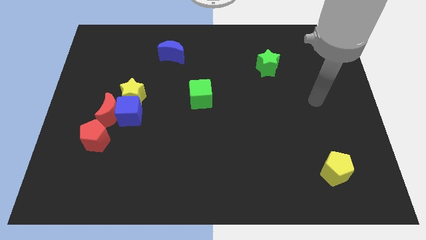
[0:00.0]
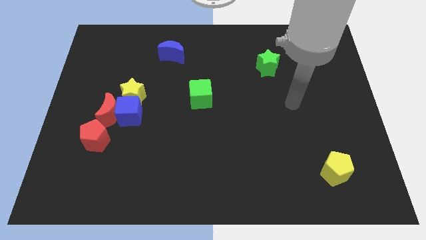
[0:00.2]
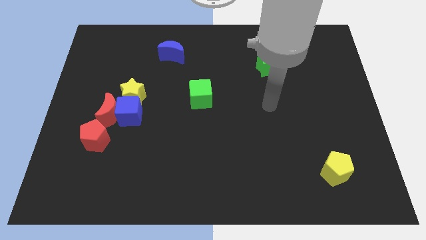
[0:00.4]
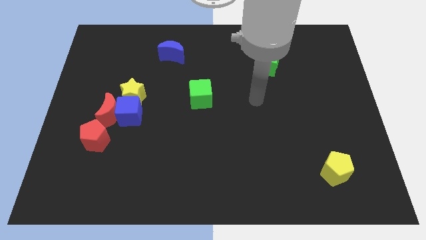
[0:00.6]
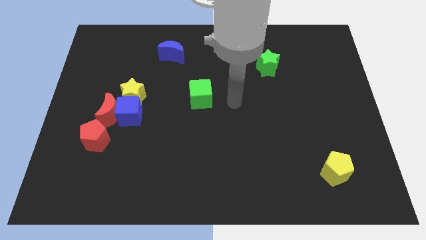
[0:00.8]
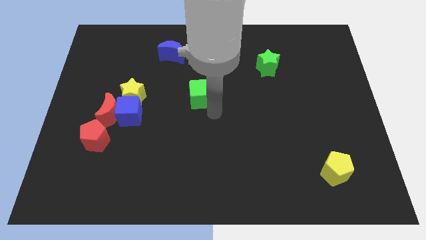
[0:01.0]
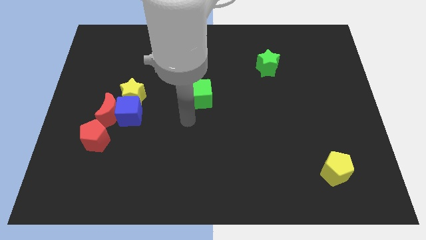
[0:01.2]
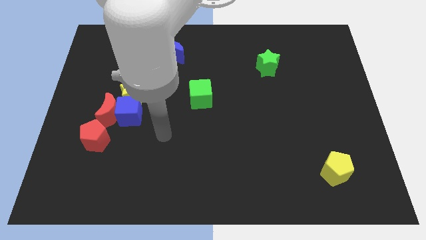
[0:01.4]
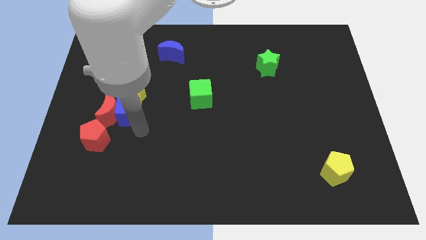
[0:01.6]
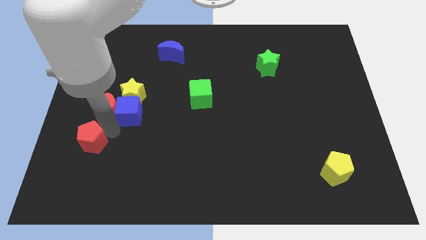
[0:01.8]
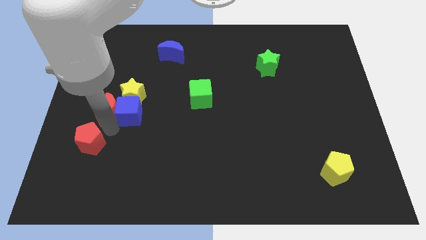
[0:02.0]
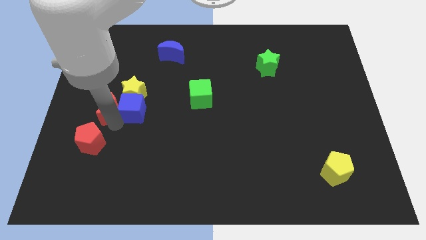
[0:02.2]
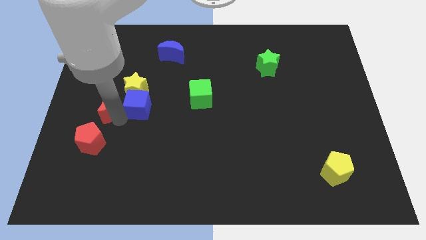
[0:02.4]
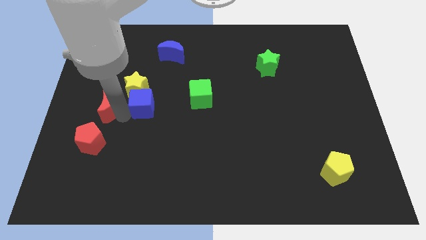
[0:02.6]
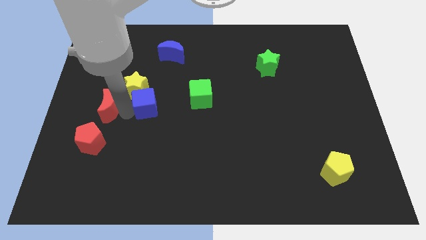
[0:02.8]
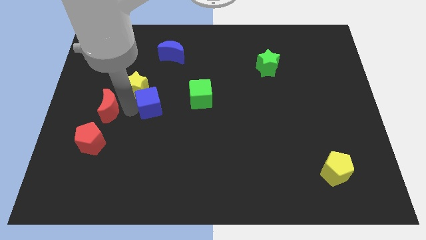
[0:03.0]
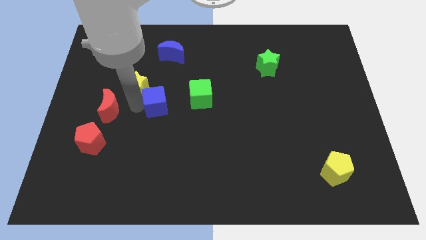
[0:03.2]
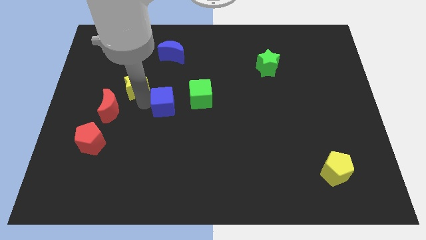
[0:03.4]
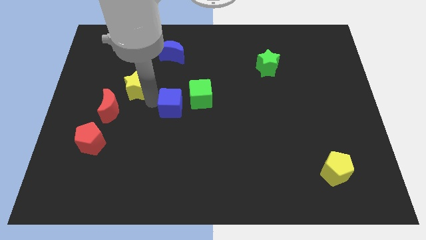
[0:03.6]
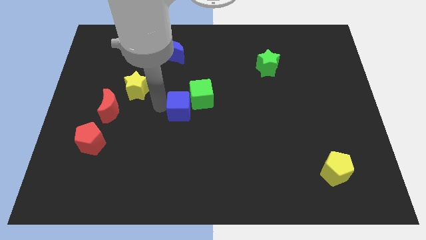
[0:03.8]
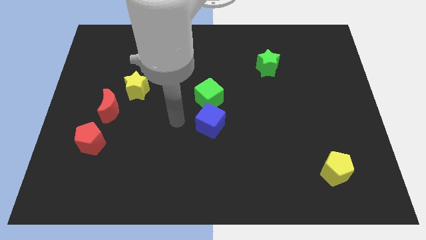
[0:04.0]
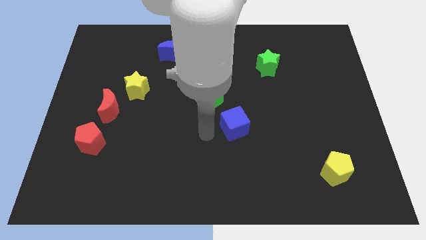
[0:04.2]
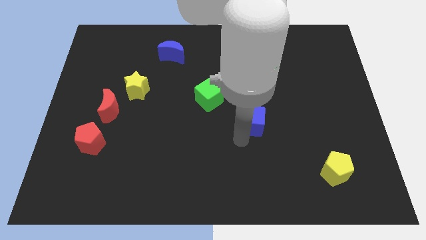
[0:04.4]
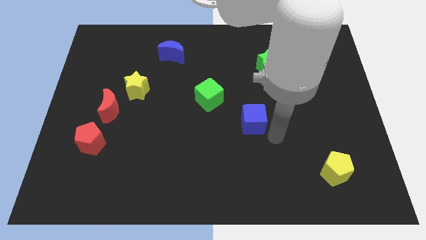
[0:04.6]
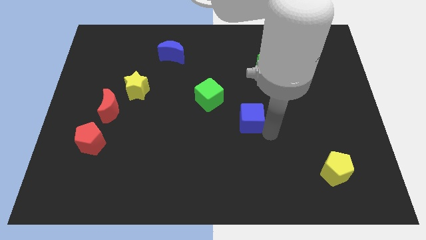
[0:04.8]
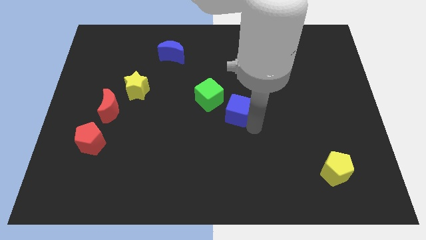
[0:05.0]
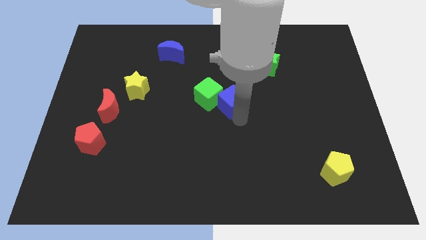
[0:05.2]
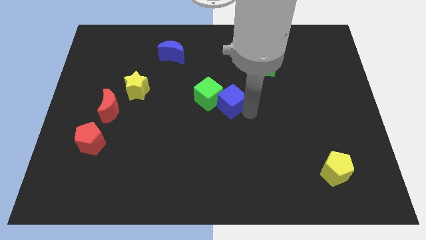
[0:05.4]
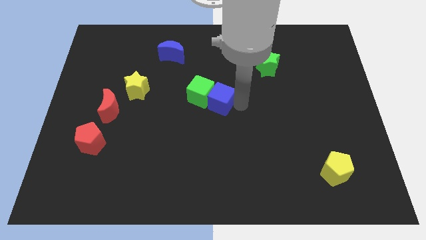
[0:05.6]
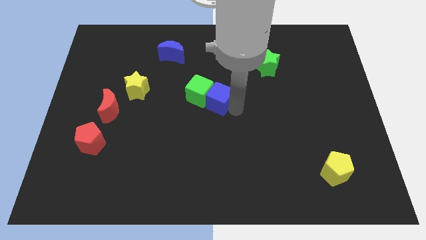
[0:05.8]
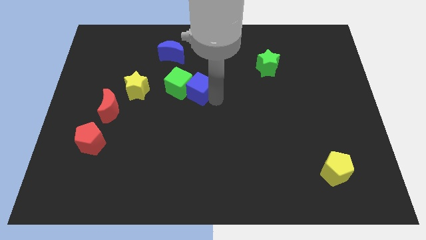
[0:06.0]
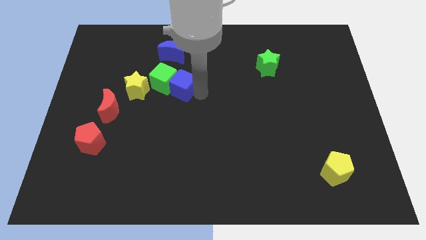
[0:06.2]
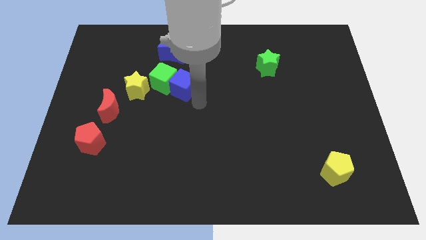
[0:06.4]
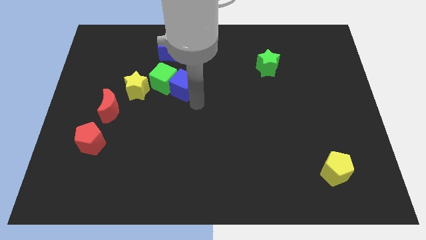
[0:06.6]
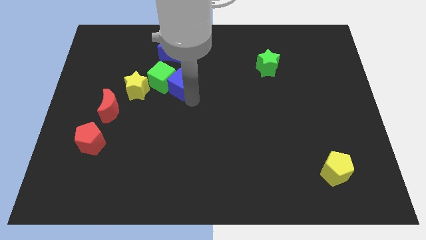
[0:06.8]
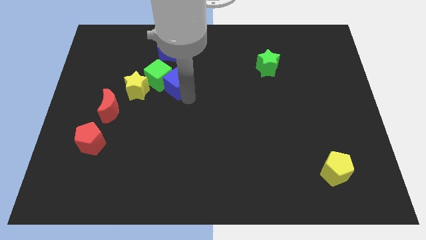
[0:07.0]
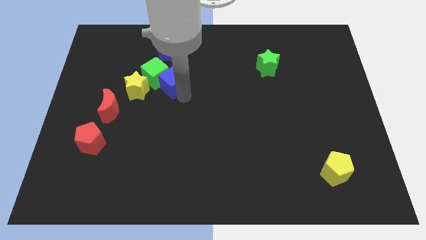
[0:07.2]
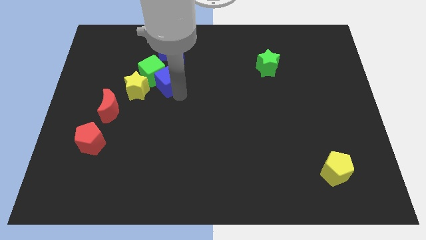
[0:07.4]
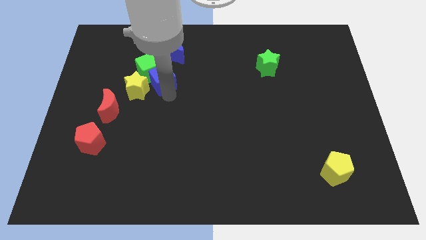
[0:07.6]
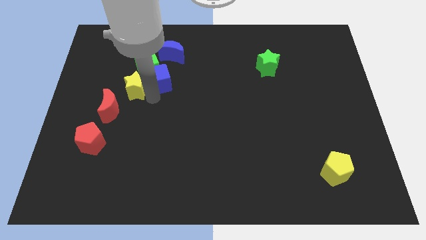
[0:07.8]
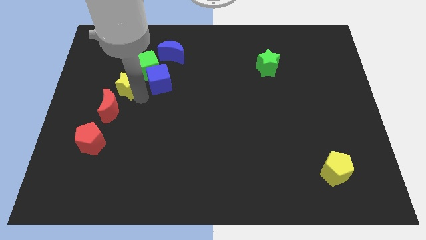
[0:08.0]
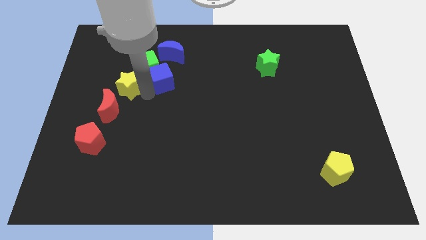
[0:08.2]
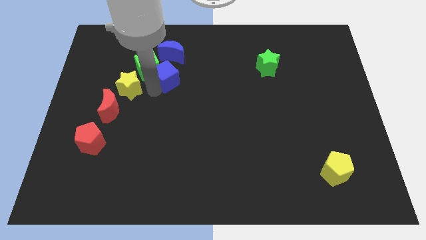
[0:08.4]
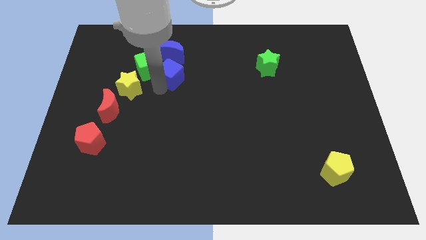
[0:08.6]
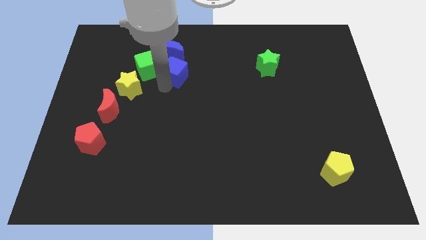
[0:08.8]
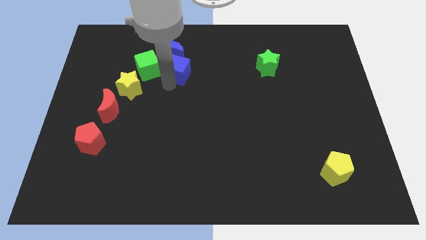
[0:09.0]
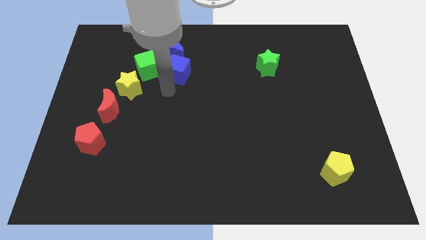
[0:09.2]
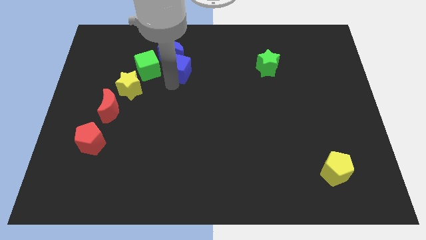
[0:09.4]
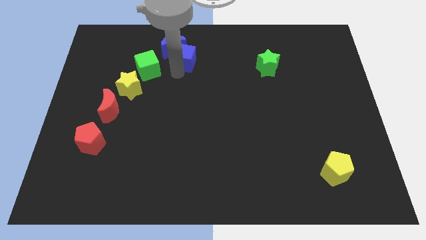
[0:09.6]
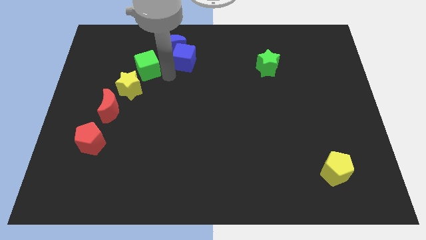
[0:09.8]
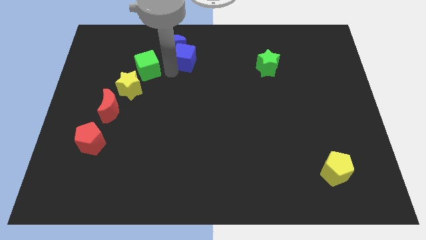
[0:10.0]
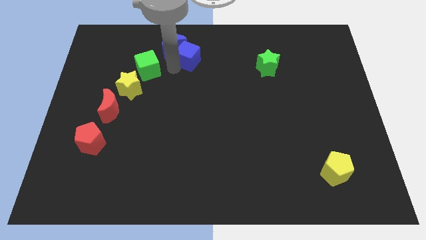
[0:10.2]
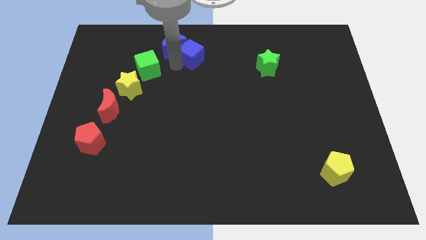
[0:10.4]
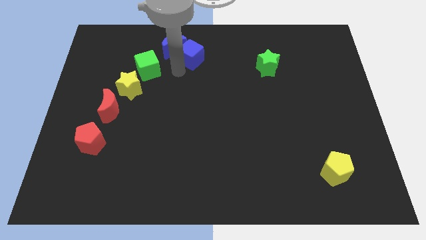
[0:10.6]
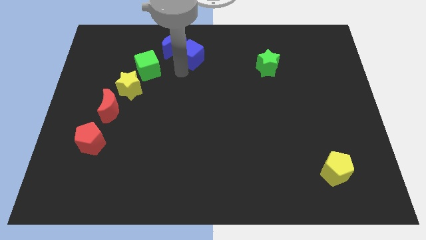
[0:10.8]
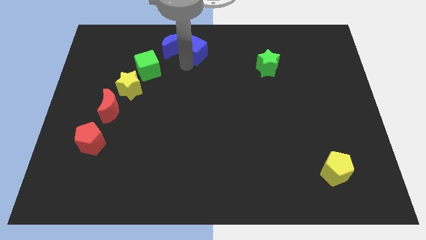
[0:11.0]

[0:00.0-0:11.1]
move the blue cube to the top side

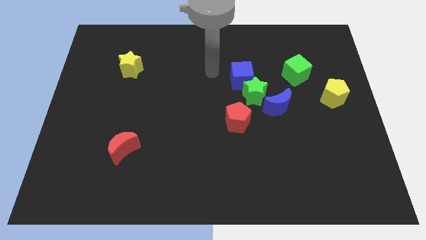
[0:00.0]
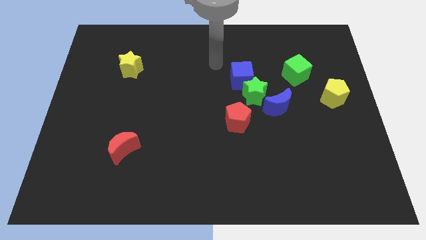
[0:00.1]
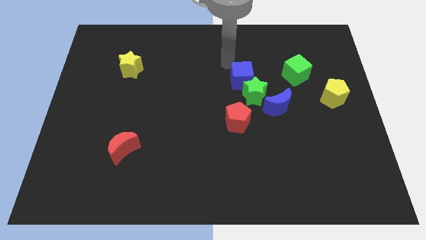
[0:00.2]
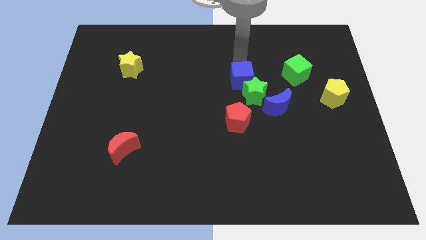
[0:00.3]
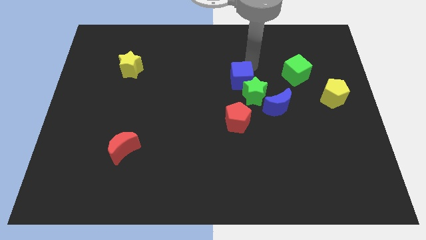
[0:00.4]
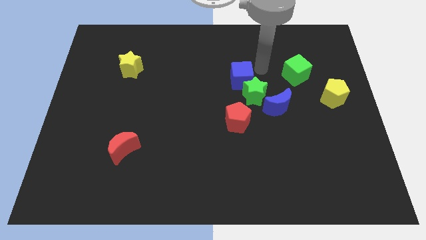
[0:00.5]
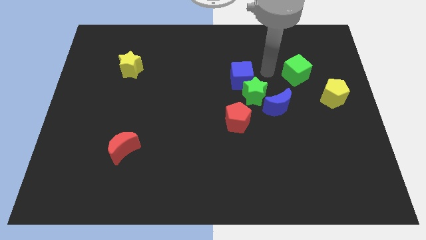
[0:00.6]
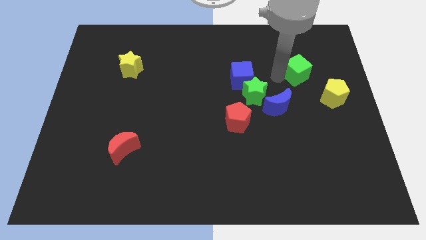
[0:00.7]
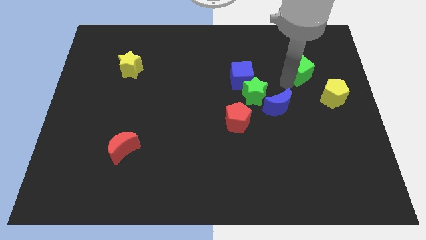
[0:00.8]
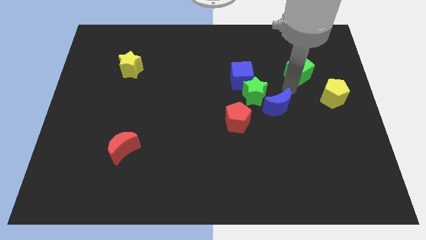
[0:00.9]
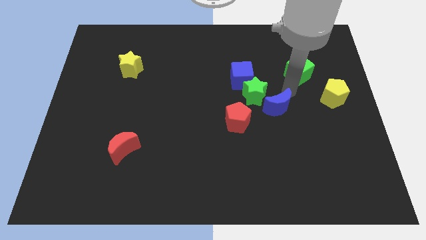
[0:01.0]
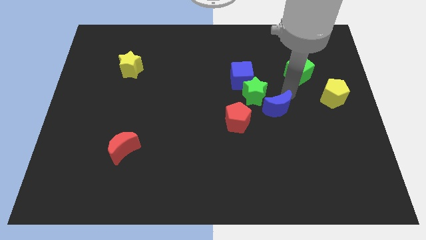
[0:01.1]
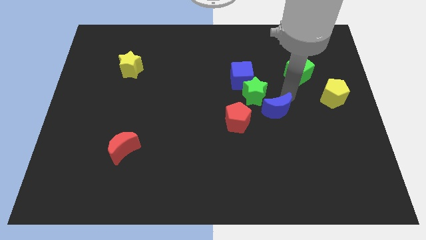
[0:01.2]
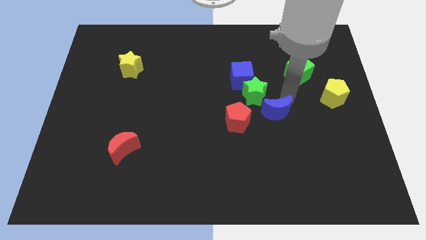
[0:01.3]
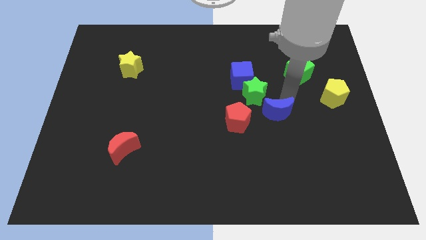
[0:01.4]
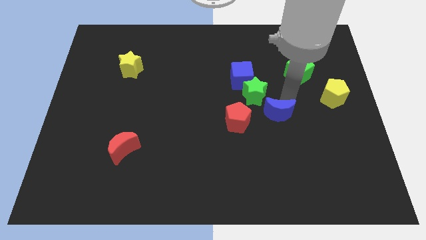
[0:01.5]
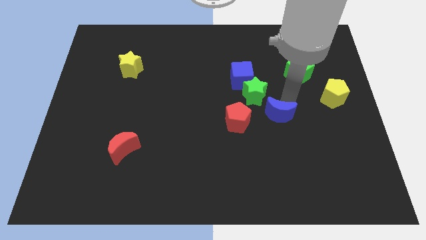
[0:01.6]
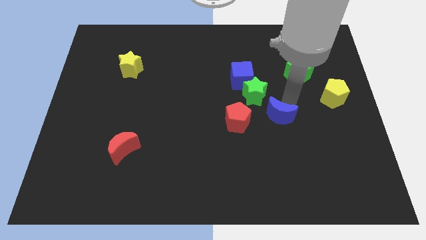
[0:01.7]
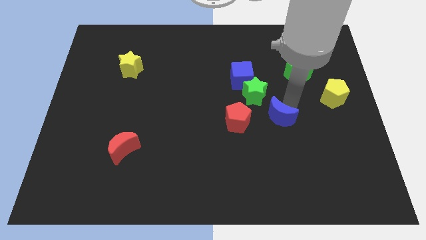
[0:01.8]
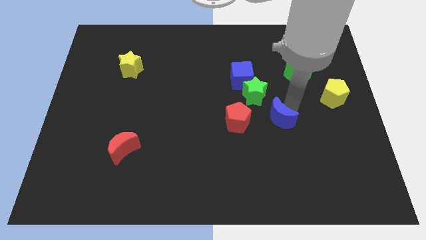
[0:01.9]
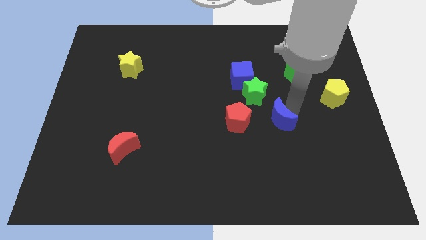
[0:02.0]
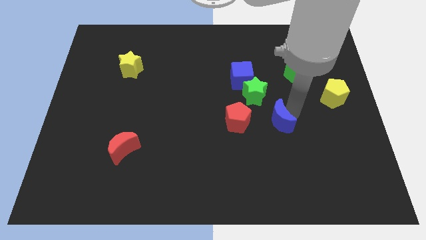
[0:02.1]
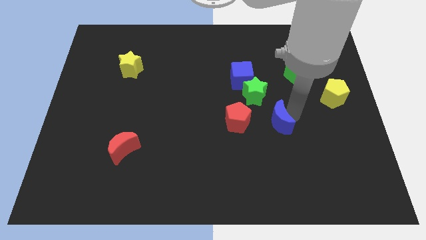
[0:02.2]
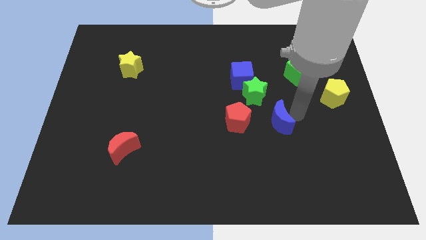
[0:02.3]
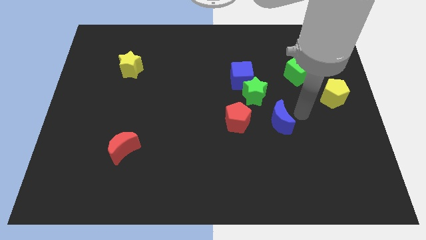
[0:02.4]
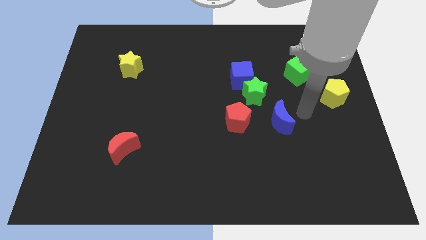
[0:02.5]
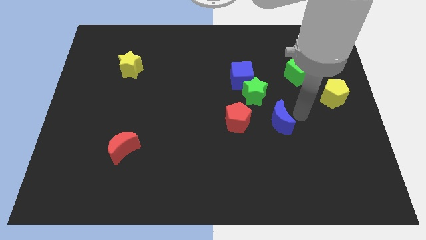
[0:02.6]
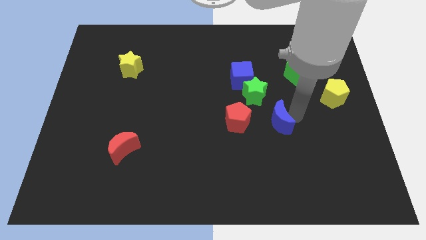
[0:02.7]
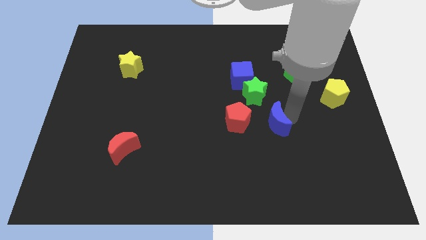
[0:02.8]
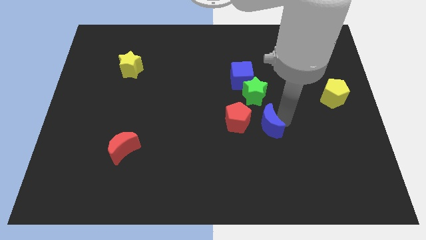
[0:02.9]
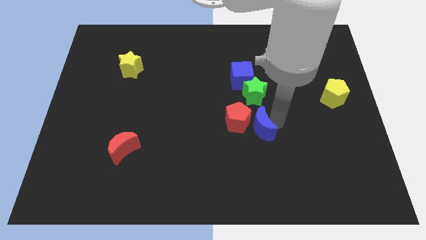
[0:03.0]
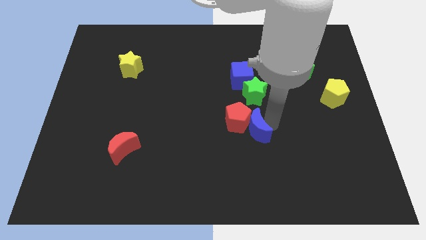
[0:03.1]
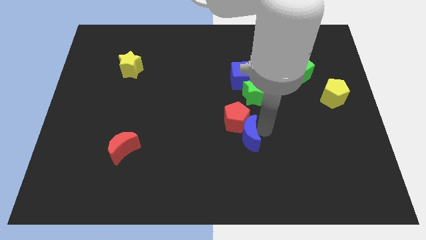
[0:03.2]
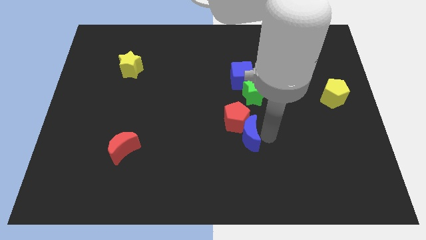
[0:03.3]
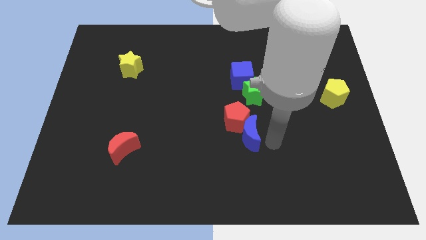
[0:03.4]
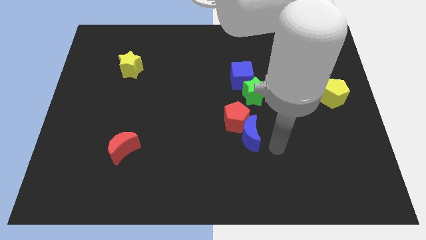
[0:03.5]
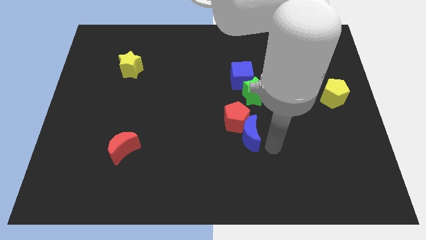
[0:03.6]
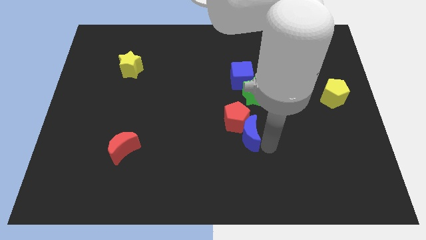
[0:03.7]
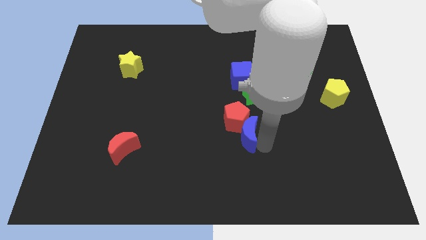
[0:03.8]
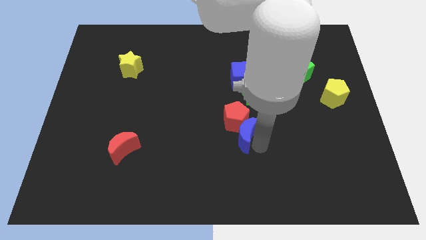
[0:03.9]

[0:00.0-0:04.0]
put the blue moon to the middle of the board
